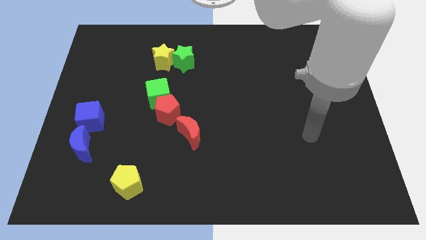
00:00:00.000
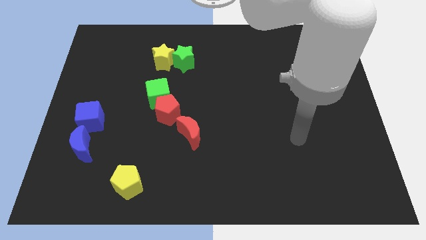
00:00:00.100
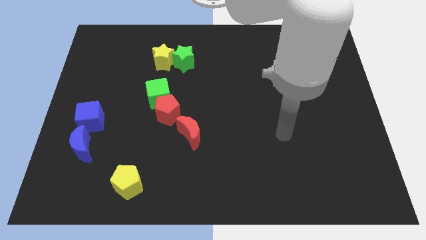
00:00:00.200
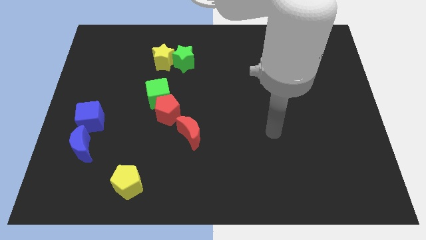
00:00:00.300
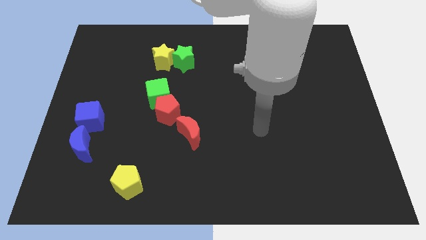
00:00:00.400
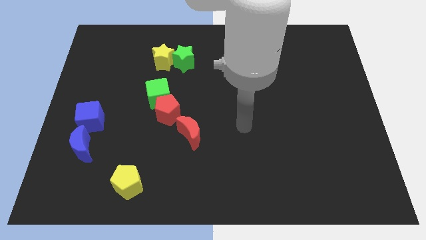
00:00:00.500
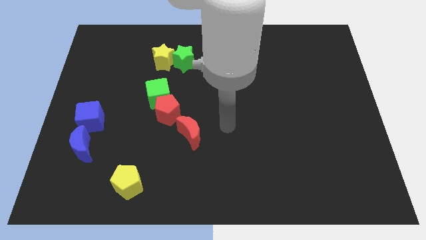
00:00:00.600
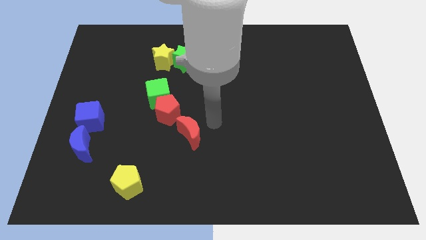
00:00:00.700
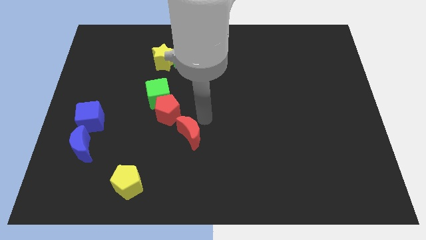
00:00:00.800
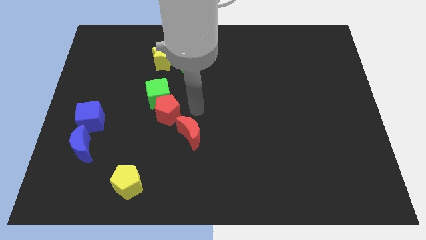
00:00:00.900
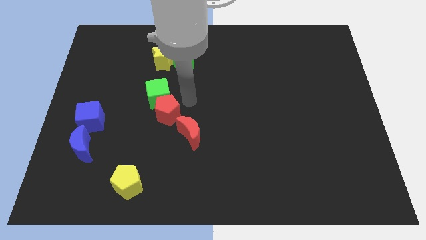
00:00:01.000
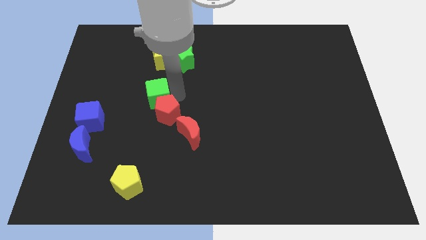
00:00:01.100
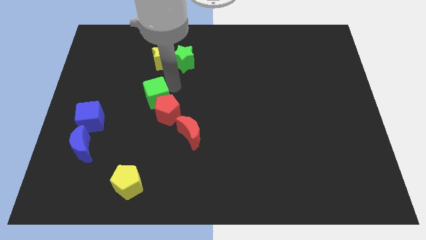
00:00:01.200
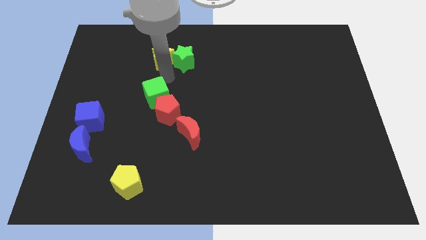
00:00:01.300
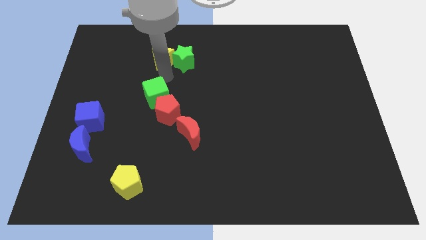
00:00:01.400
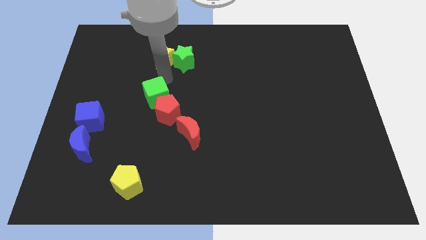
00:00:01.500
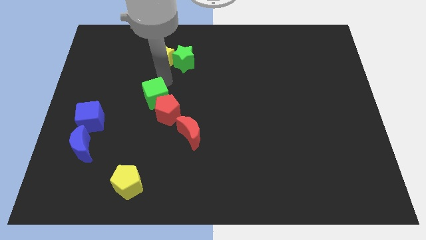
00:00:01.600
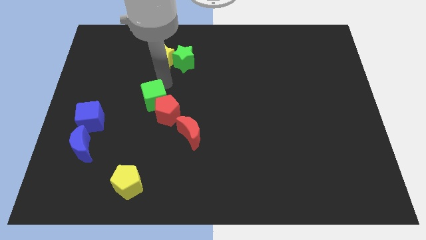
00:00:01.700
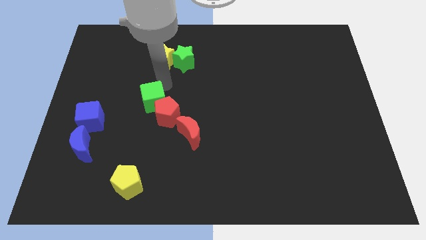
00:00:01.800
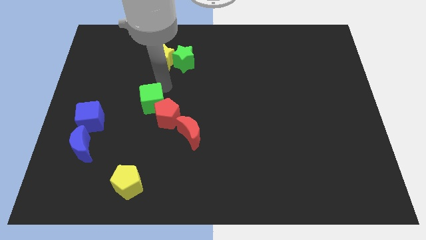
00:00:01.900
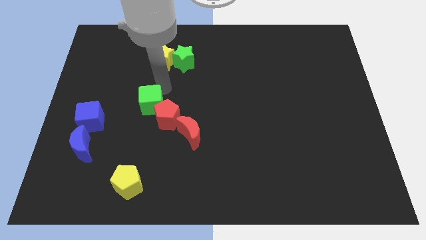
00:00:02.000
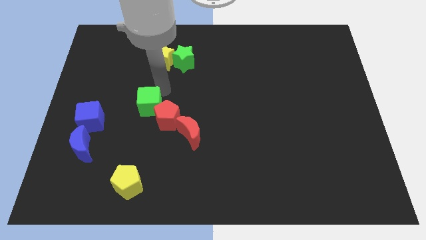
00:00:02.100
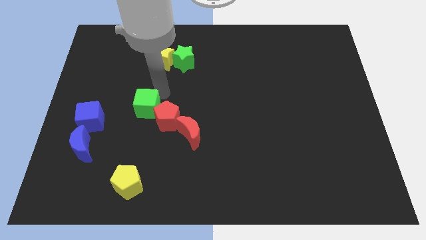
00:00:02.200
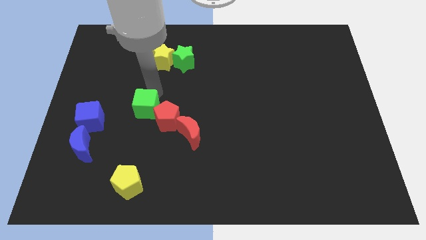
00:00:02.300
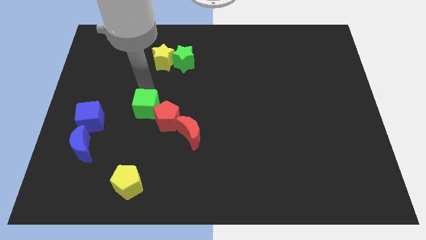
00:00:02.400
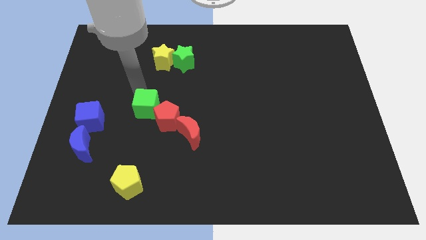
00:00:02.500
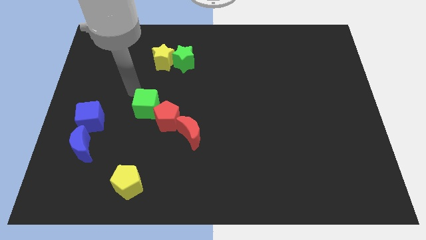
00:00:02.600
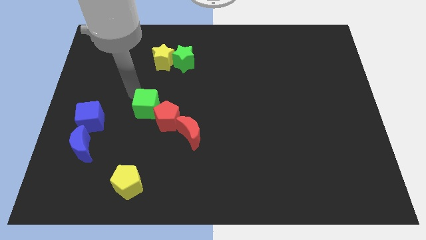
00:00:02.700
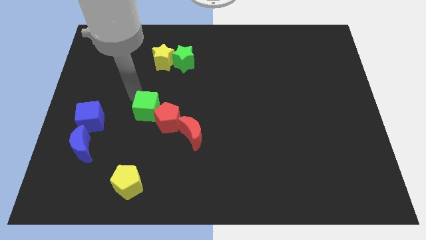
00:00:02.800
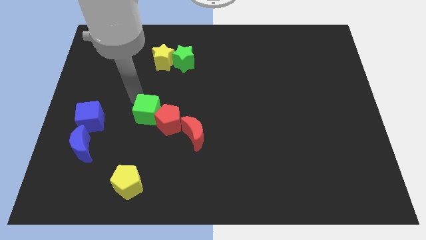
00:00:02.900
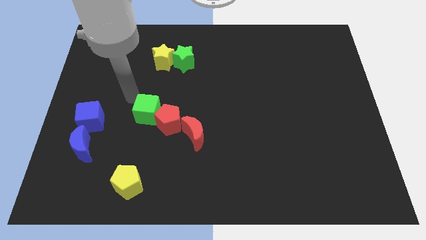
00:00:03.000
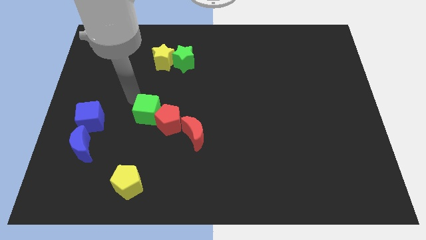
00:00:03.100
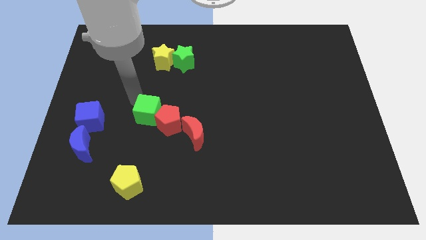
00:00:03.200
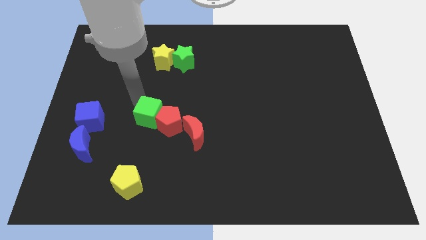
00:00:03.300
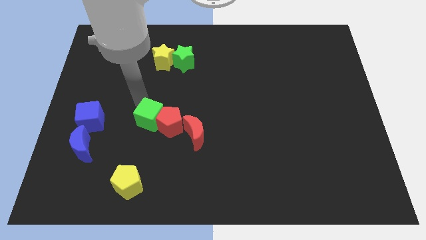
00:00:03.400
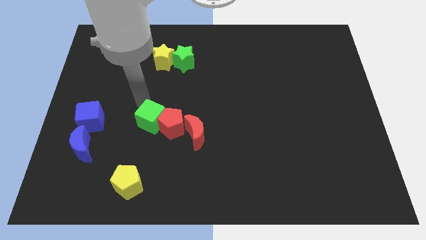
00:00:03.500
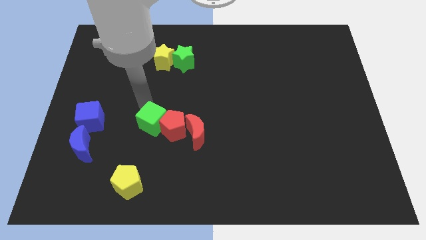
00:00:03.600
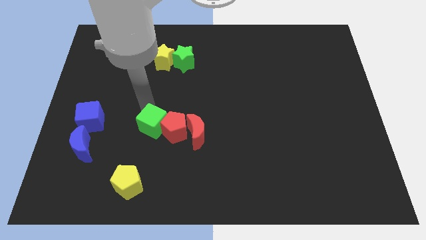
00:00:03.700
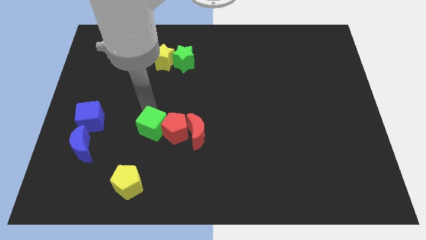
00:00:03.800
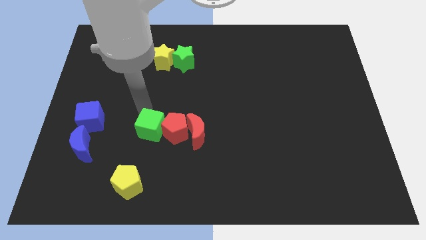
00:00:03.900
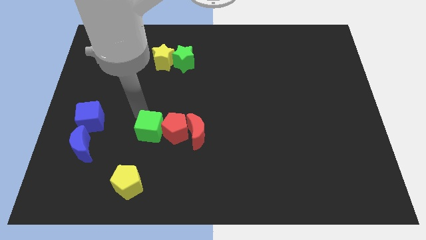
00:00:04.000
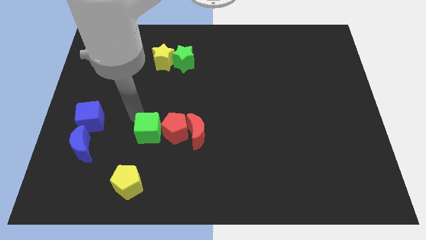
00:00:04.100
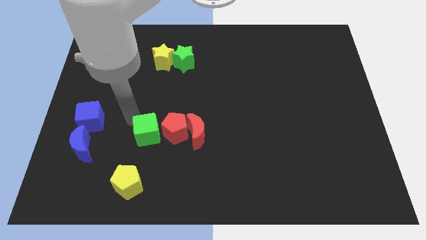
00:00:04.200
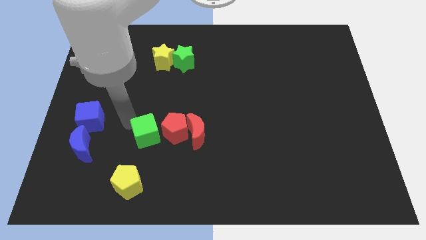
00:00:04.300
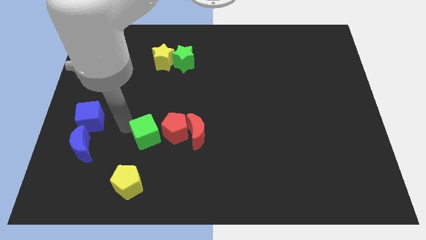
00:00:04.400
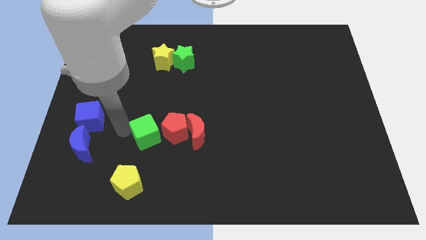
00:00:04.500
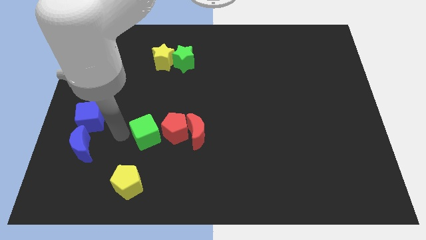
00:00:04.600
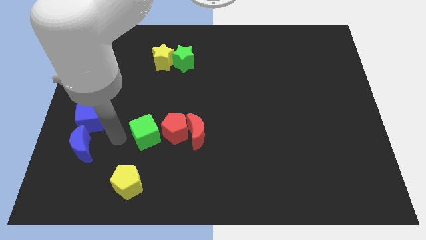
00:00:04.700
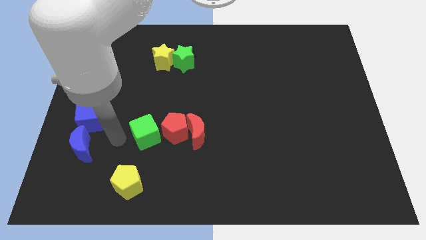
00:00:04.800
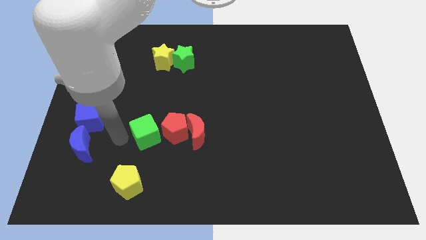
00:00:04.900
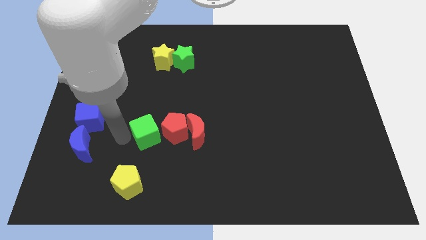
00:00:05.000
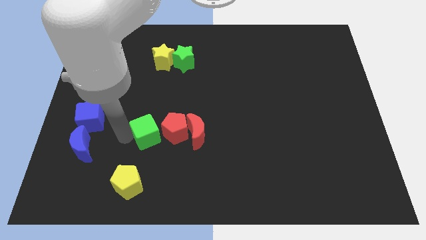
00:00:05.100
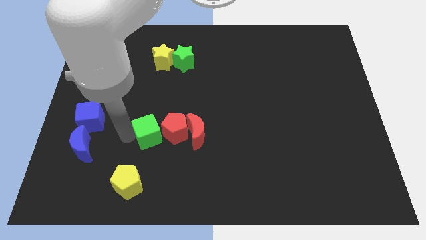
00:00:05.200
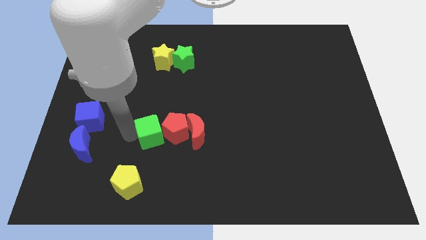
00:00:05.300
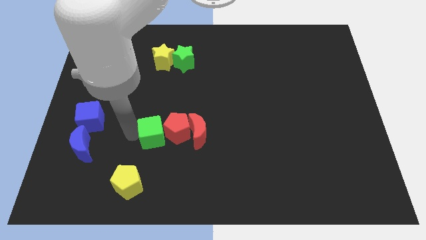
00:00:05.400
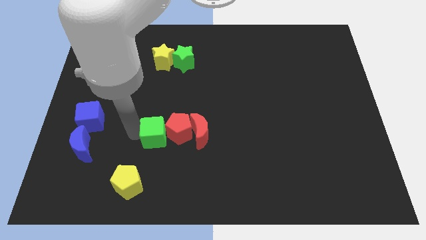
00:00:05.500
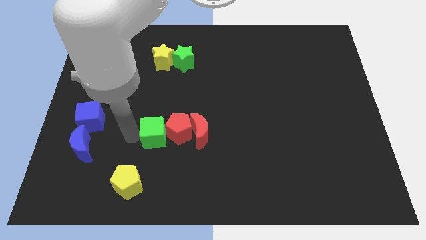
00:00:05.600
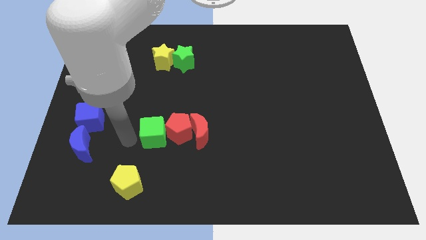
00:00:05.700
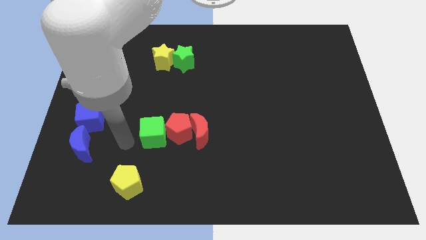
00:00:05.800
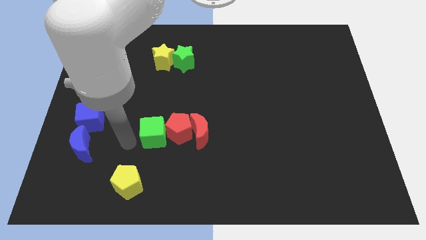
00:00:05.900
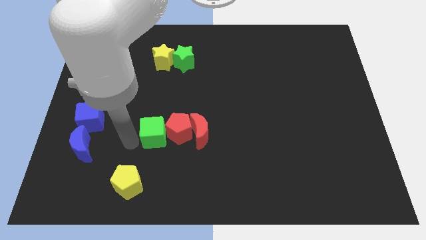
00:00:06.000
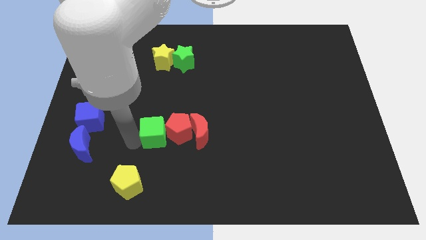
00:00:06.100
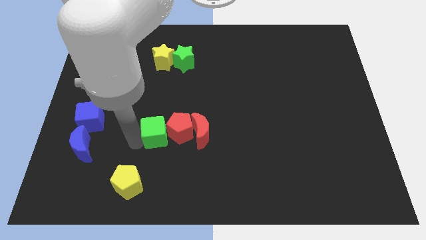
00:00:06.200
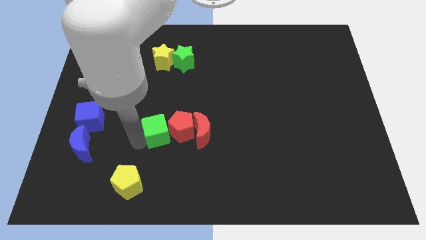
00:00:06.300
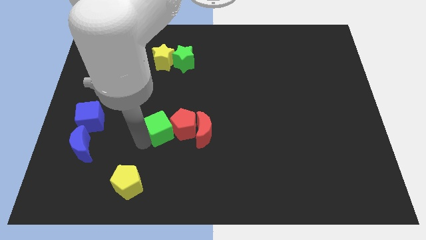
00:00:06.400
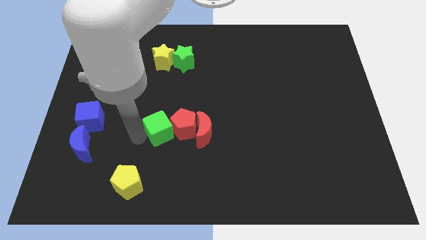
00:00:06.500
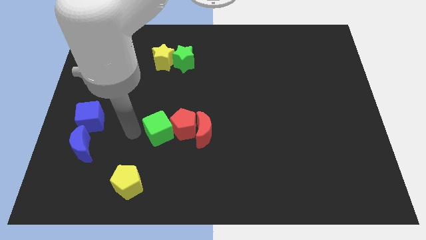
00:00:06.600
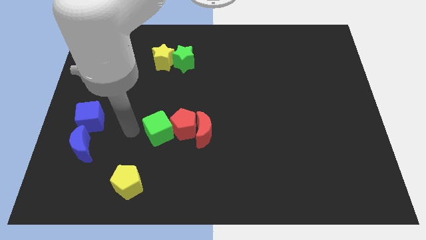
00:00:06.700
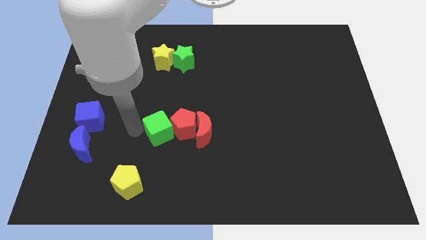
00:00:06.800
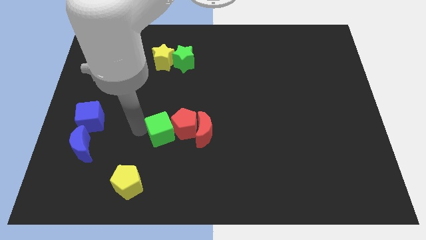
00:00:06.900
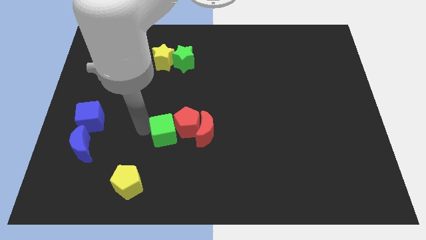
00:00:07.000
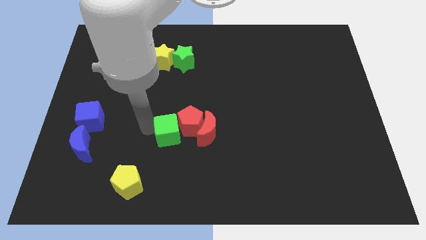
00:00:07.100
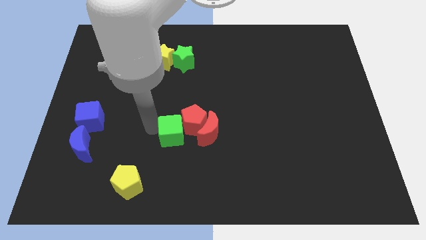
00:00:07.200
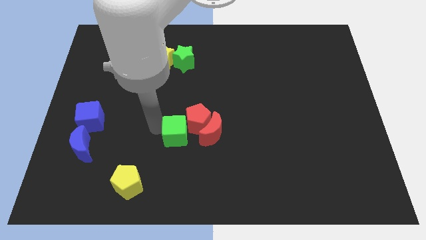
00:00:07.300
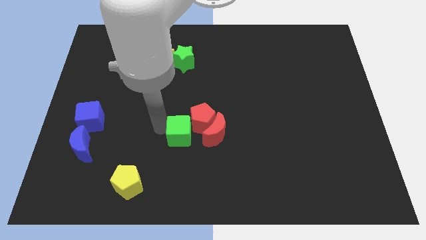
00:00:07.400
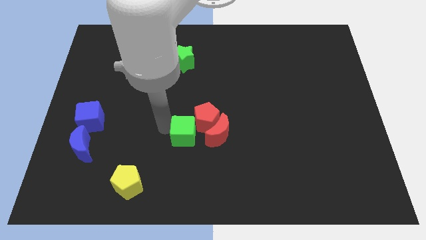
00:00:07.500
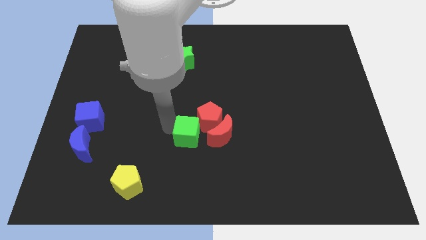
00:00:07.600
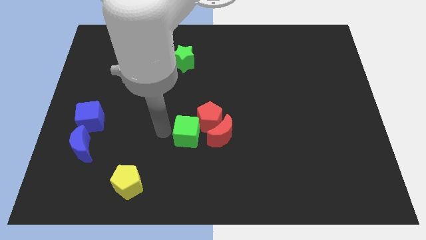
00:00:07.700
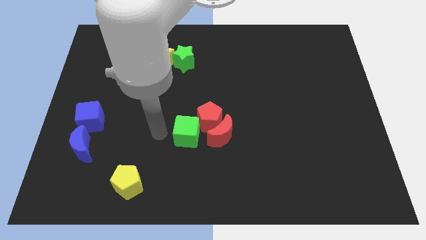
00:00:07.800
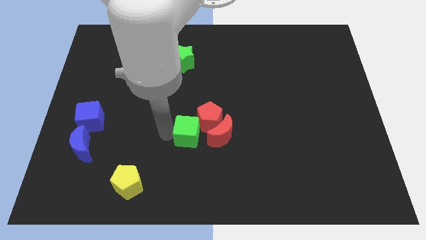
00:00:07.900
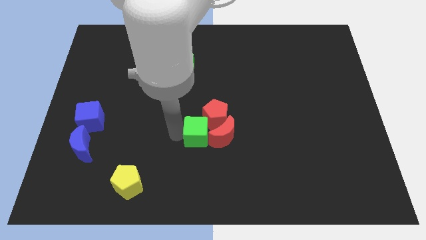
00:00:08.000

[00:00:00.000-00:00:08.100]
move the green cube next to the red moon
